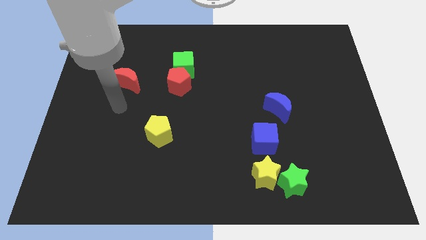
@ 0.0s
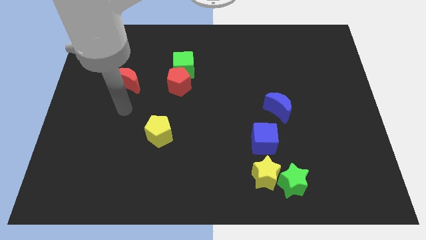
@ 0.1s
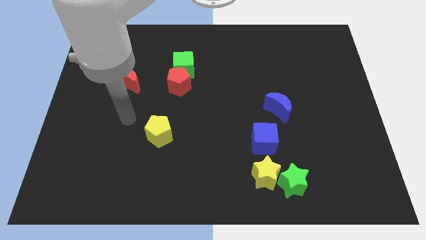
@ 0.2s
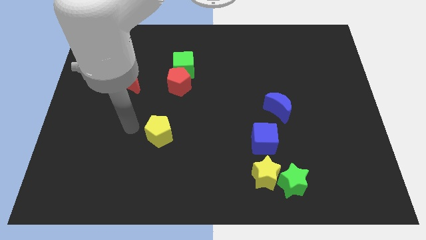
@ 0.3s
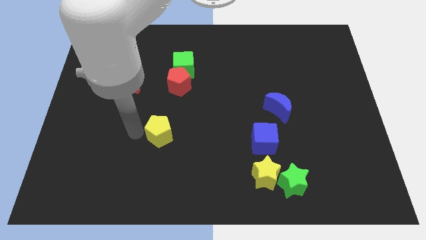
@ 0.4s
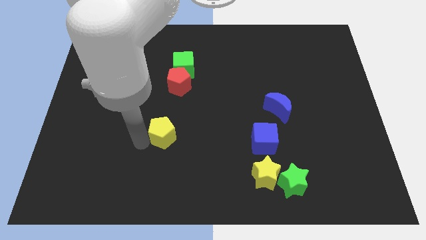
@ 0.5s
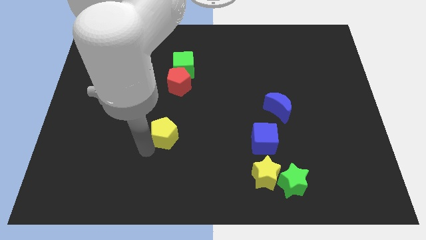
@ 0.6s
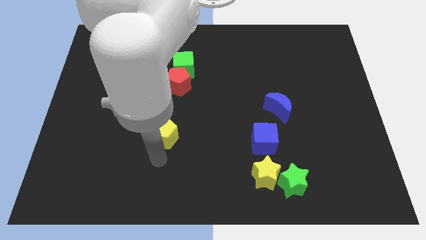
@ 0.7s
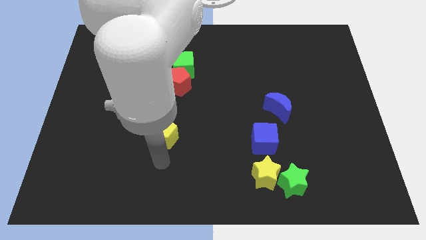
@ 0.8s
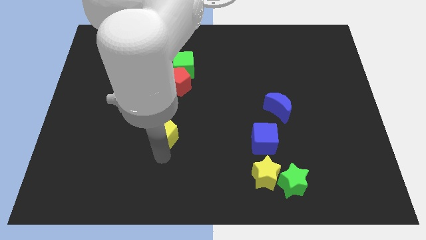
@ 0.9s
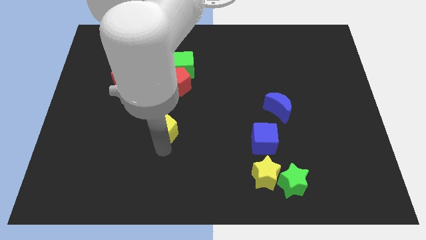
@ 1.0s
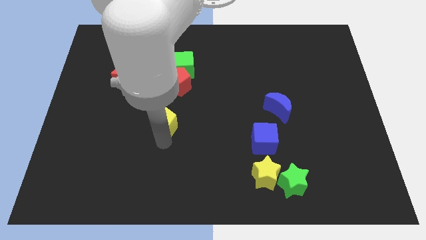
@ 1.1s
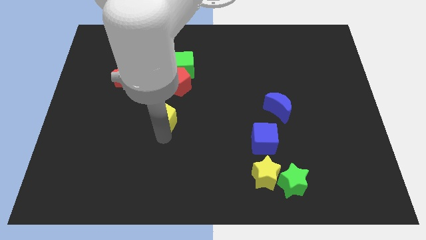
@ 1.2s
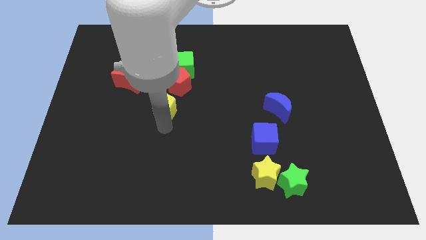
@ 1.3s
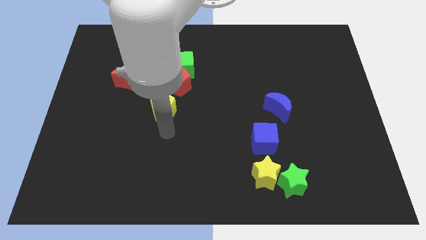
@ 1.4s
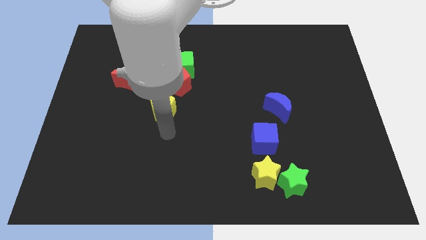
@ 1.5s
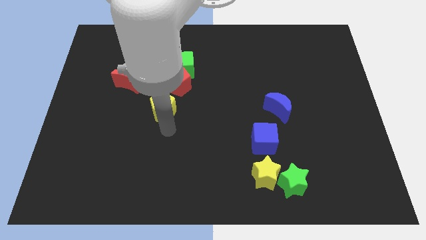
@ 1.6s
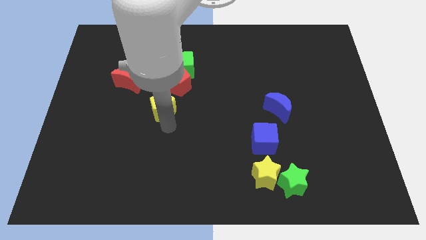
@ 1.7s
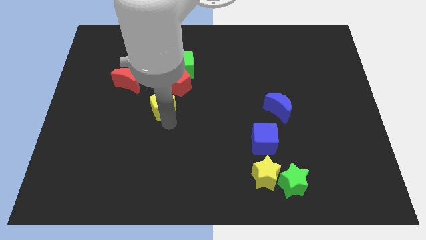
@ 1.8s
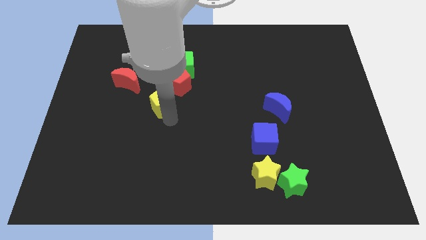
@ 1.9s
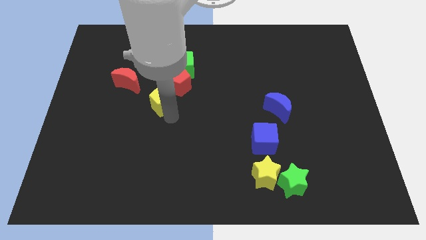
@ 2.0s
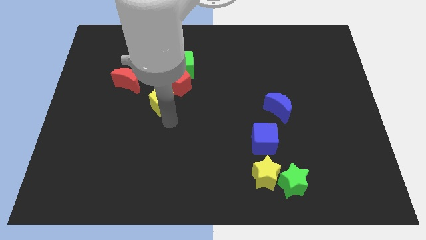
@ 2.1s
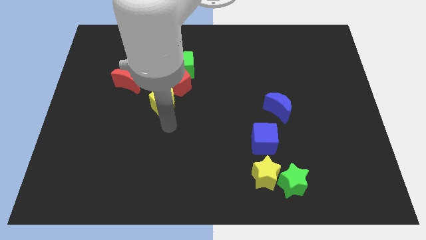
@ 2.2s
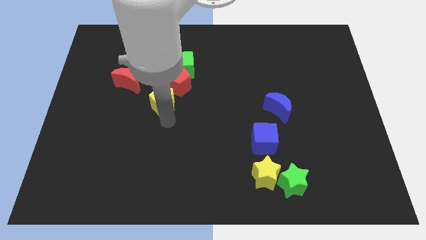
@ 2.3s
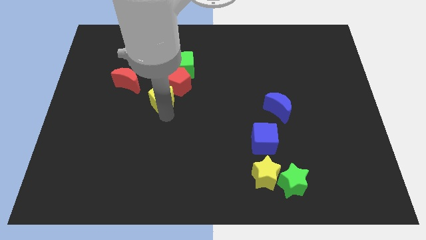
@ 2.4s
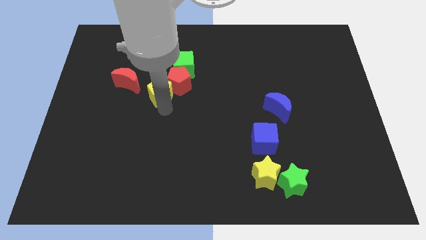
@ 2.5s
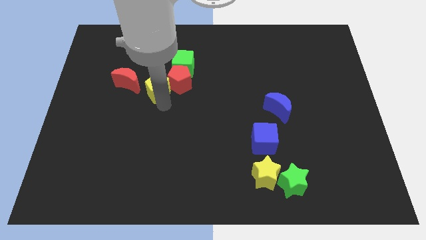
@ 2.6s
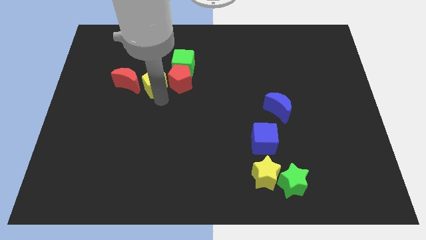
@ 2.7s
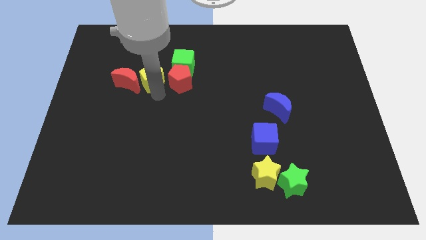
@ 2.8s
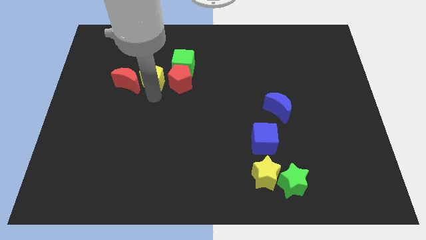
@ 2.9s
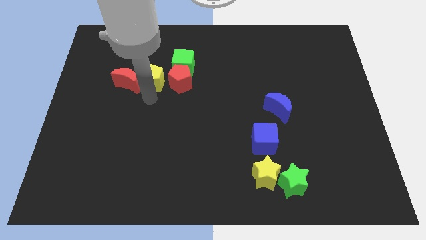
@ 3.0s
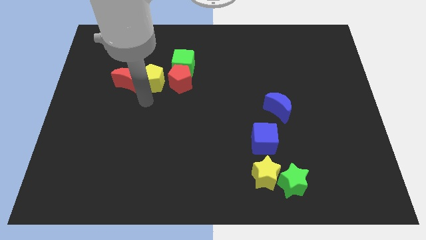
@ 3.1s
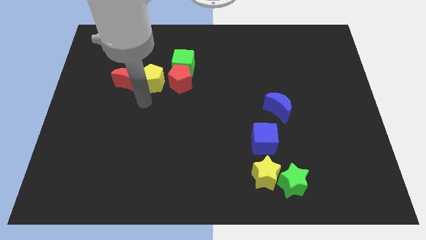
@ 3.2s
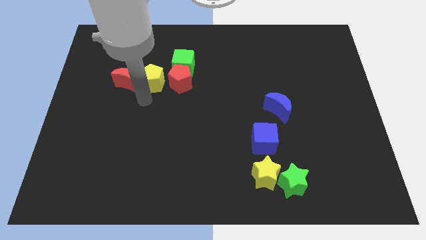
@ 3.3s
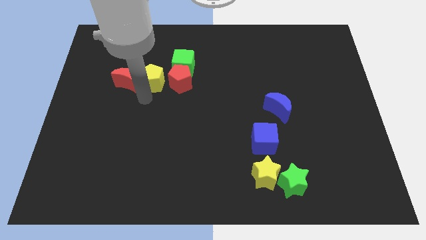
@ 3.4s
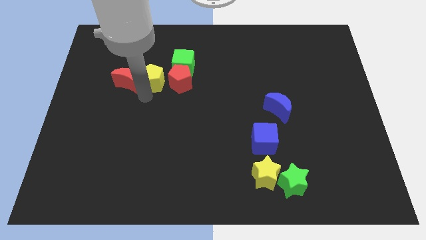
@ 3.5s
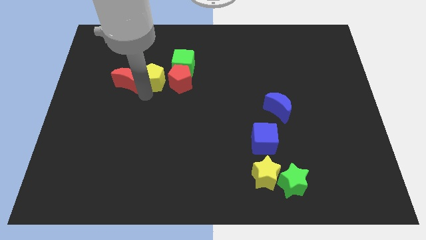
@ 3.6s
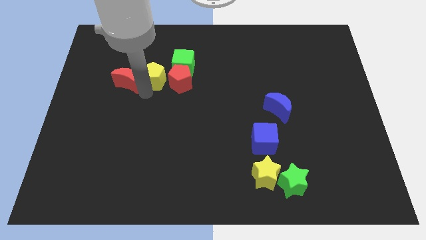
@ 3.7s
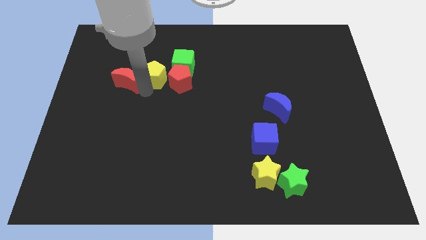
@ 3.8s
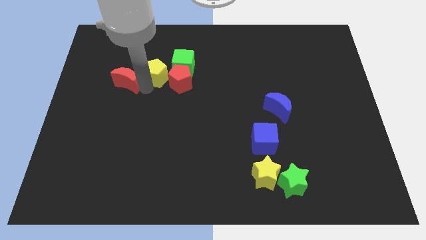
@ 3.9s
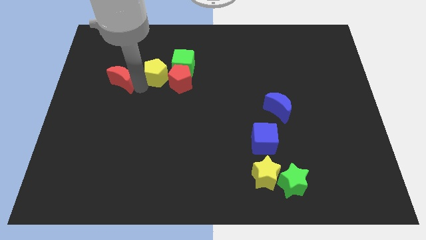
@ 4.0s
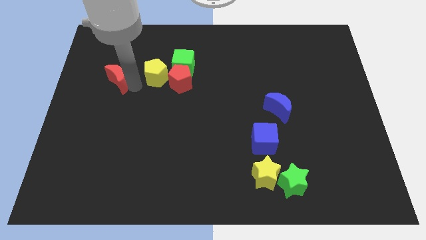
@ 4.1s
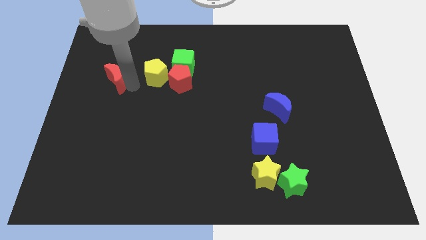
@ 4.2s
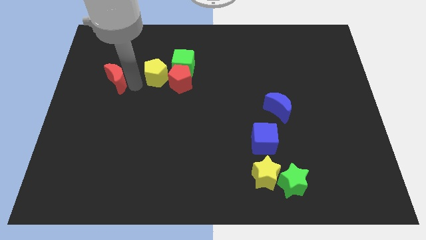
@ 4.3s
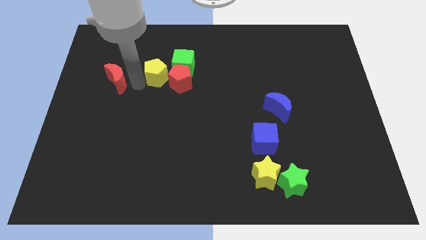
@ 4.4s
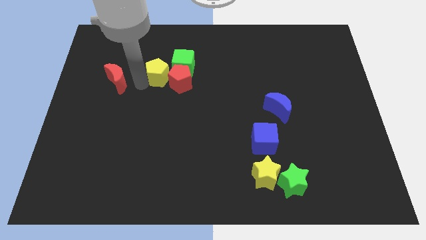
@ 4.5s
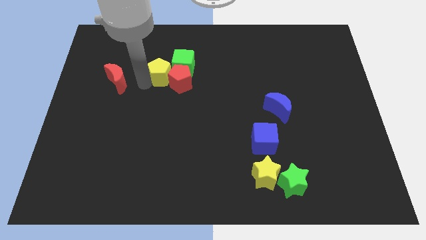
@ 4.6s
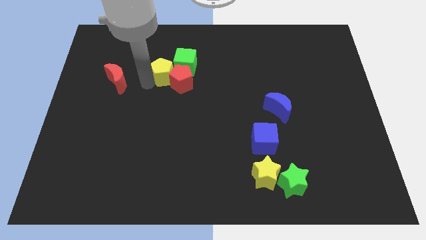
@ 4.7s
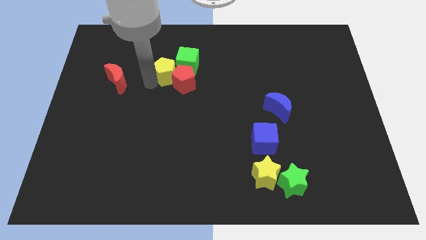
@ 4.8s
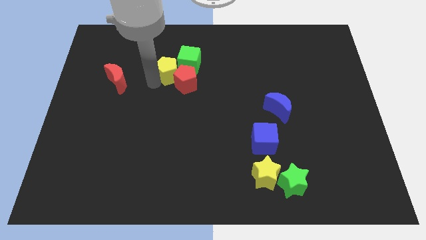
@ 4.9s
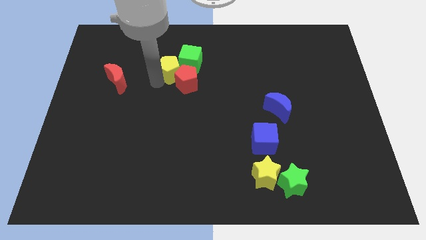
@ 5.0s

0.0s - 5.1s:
slide the yellow pentagon close to the green cube
